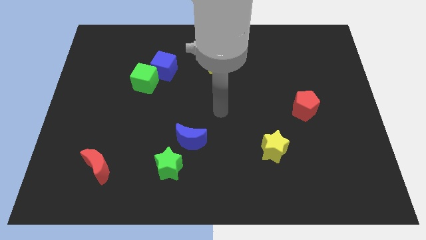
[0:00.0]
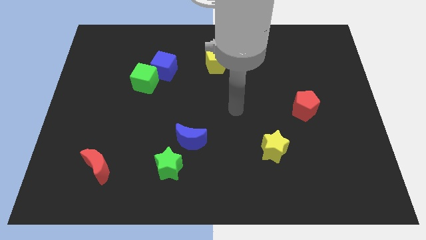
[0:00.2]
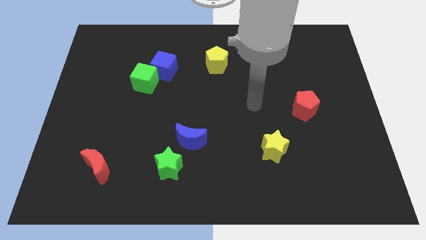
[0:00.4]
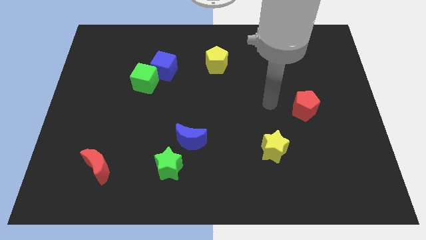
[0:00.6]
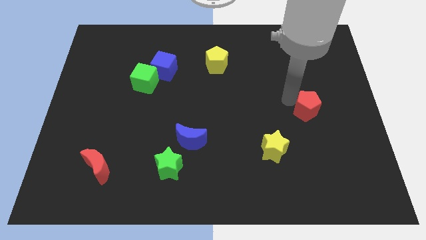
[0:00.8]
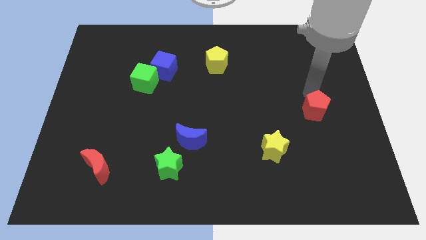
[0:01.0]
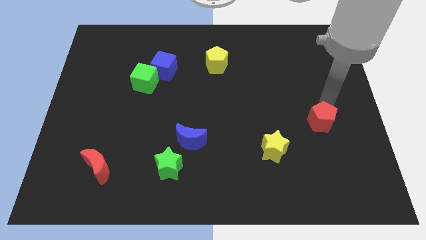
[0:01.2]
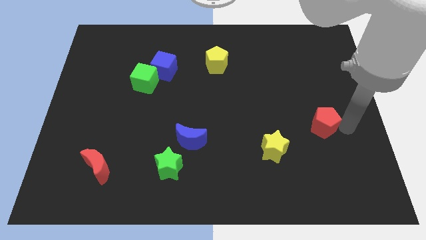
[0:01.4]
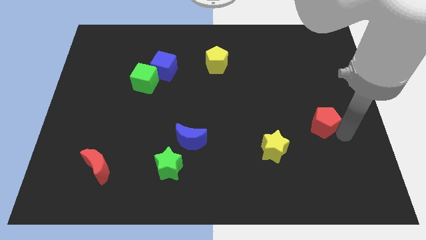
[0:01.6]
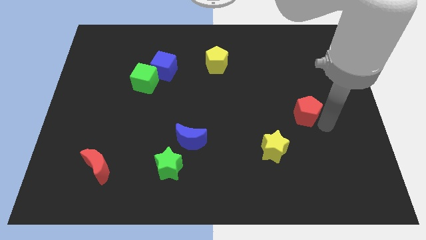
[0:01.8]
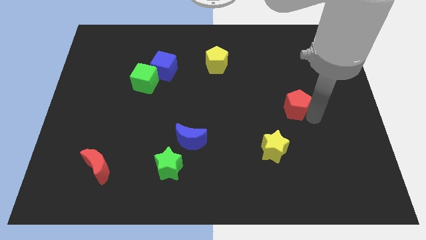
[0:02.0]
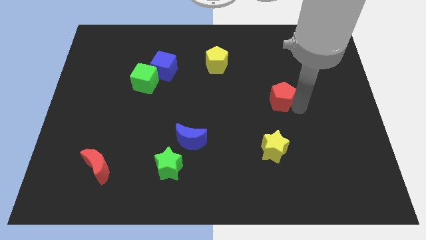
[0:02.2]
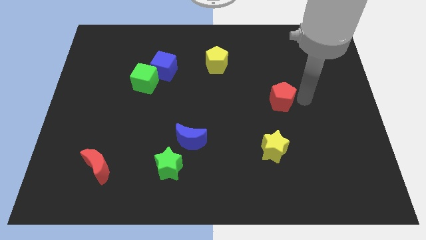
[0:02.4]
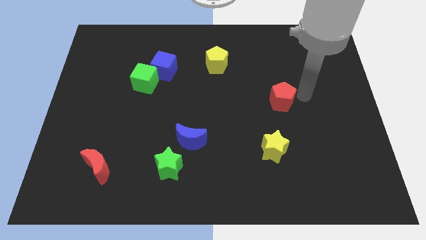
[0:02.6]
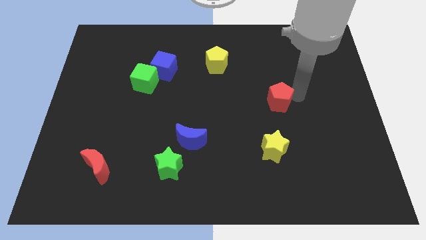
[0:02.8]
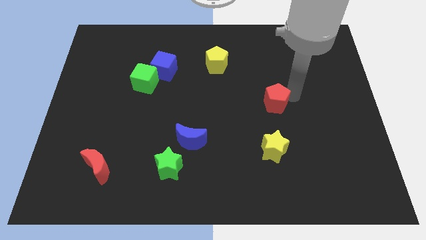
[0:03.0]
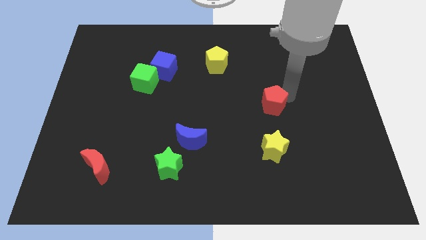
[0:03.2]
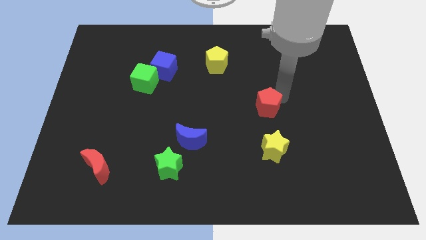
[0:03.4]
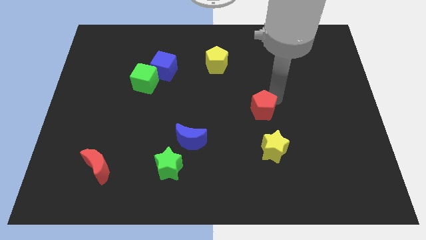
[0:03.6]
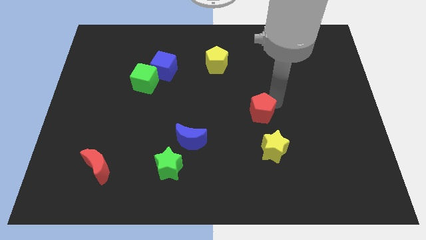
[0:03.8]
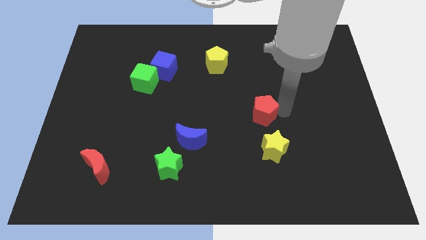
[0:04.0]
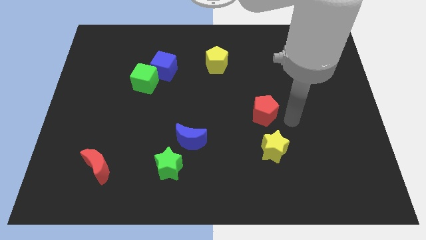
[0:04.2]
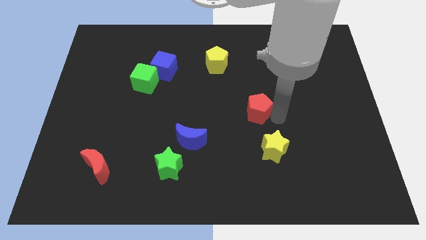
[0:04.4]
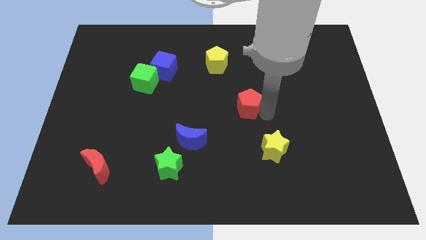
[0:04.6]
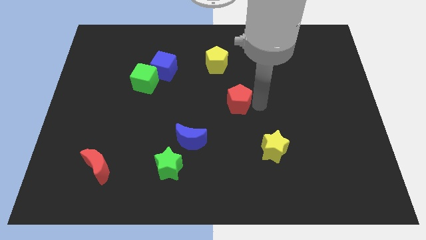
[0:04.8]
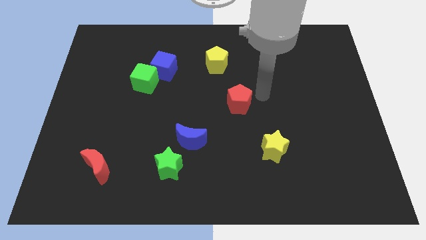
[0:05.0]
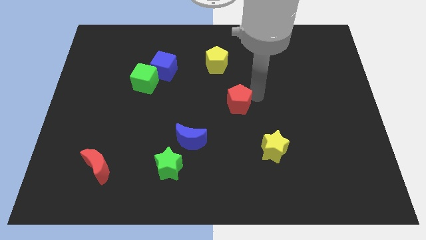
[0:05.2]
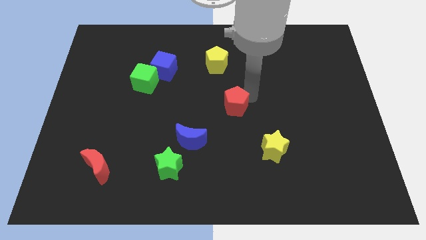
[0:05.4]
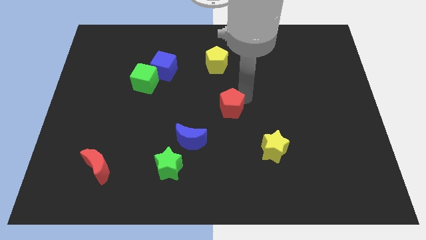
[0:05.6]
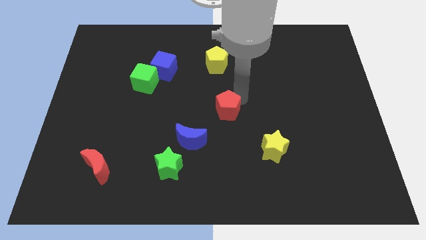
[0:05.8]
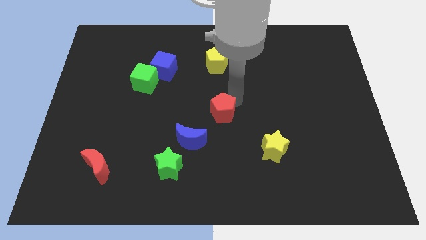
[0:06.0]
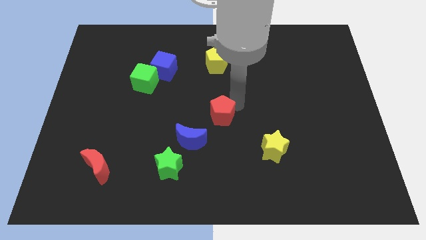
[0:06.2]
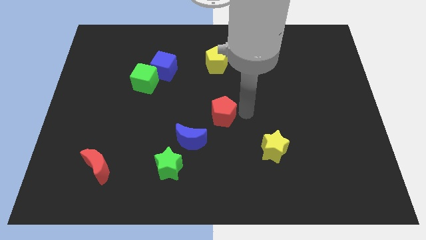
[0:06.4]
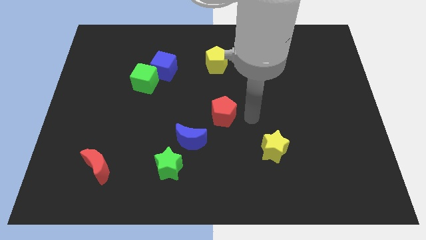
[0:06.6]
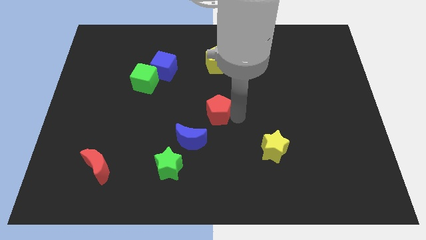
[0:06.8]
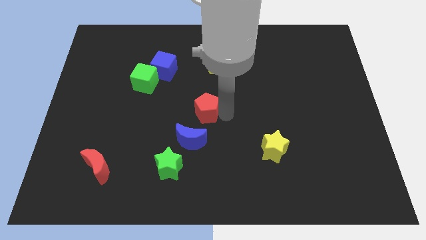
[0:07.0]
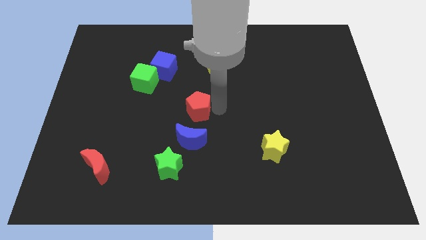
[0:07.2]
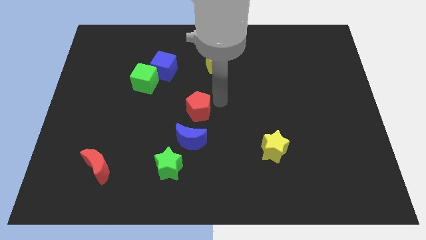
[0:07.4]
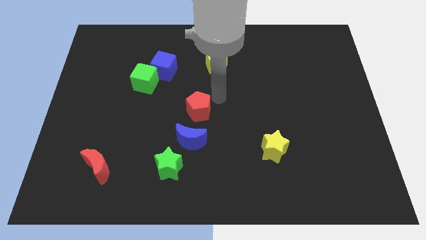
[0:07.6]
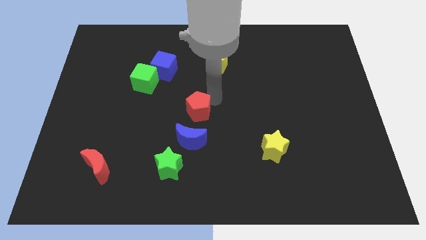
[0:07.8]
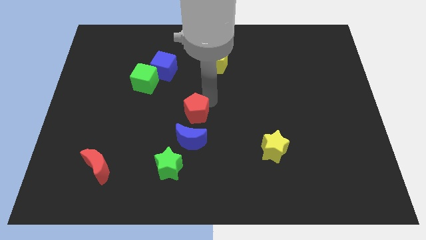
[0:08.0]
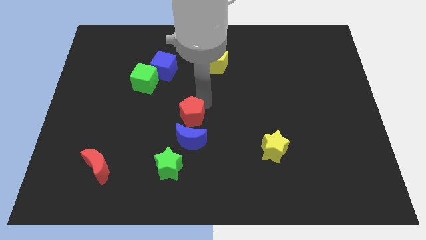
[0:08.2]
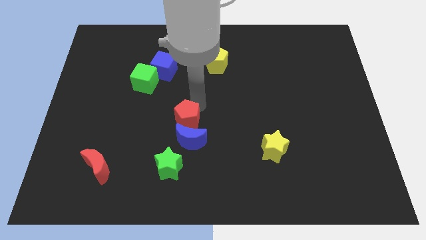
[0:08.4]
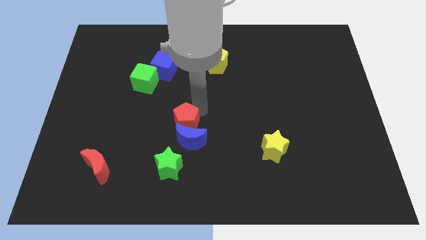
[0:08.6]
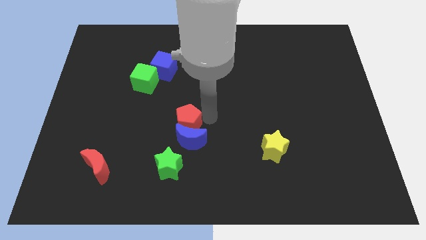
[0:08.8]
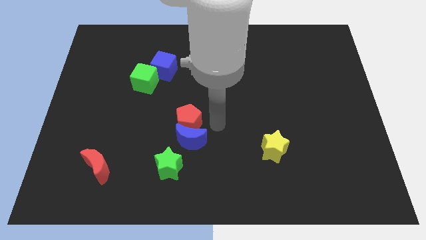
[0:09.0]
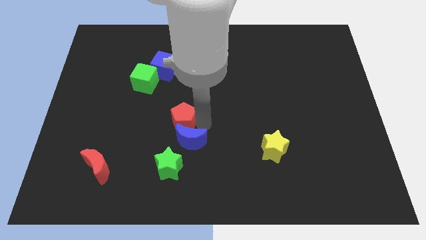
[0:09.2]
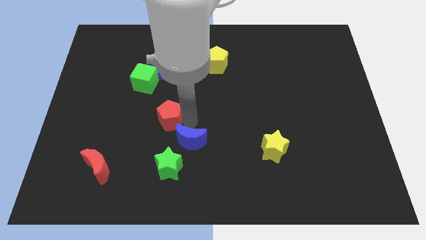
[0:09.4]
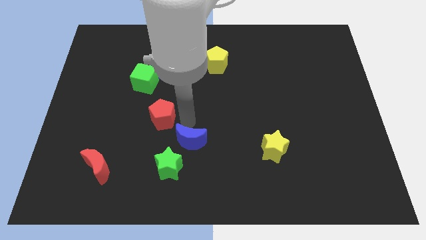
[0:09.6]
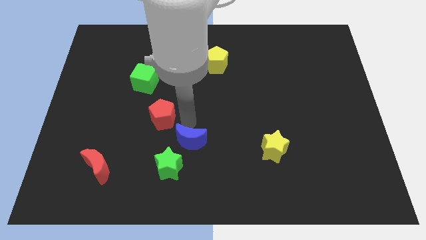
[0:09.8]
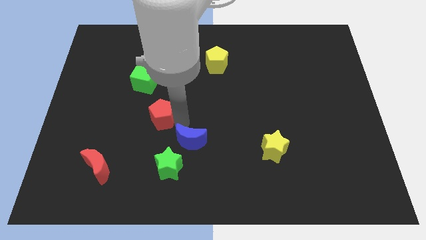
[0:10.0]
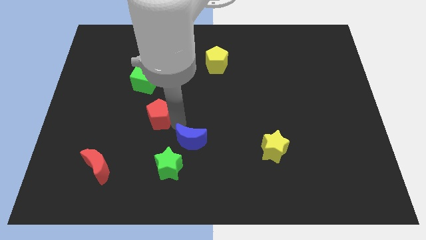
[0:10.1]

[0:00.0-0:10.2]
push the red pentagon to the bottom of the green cube

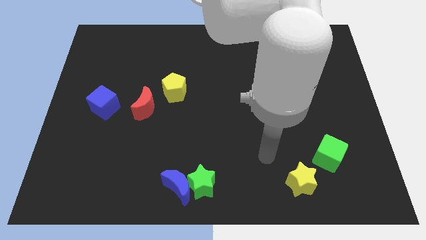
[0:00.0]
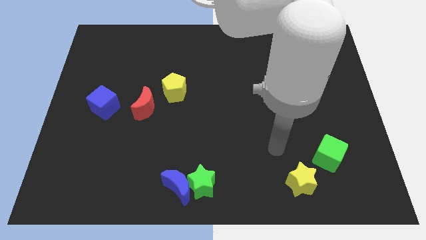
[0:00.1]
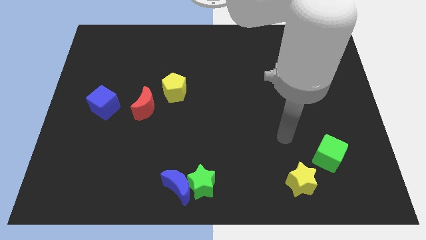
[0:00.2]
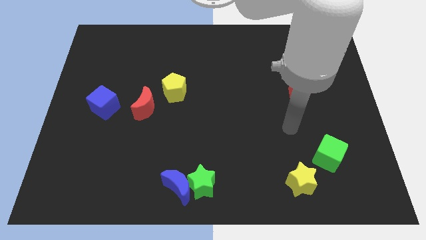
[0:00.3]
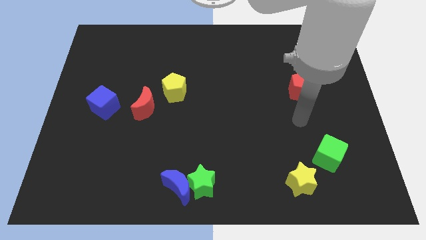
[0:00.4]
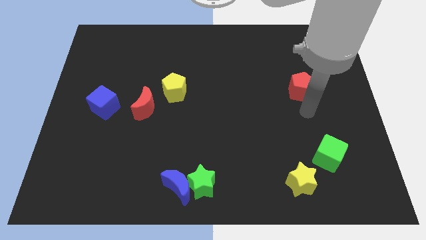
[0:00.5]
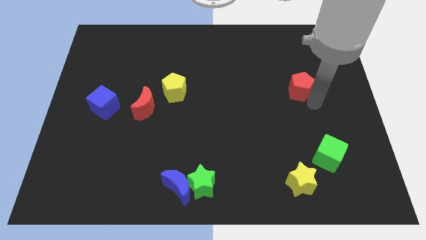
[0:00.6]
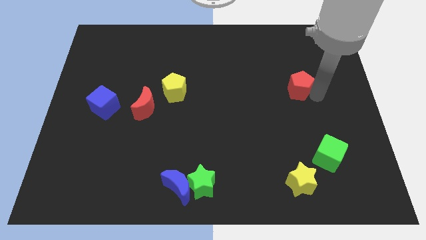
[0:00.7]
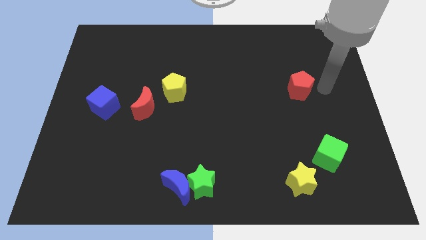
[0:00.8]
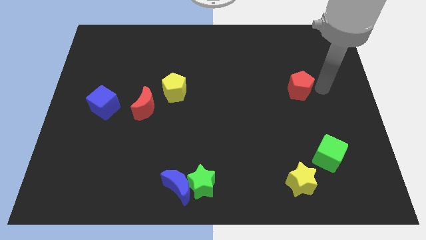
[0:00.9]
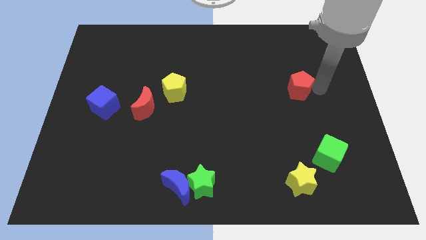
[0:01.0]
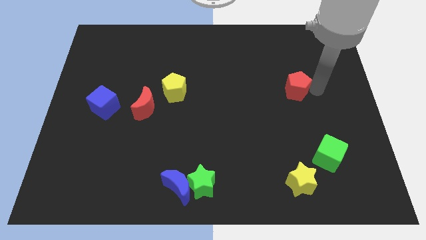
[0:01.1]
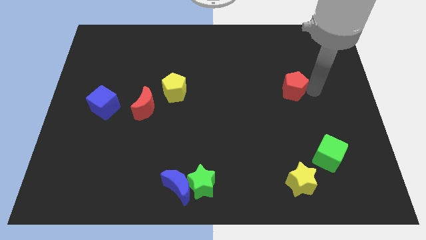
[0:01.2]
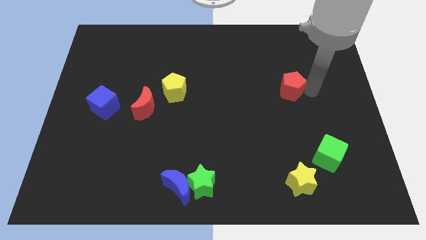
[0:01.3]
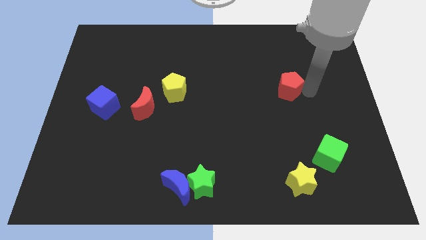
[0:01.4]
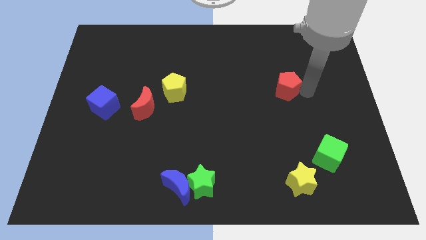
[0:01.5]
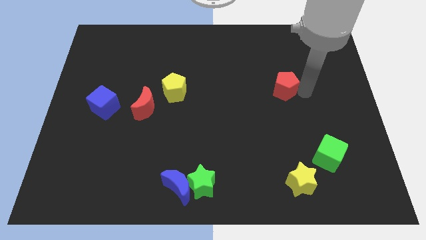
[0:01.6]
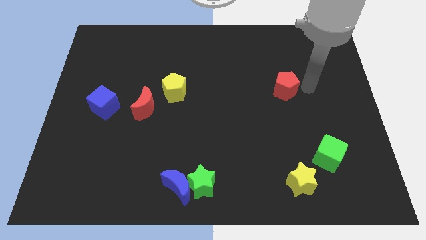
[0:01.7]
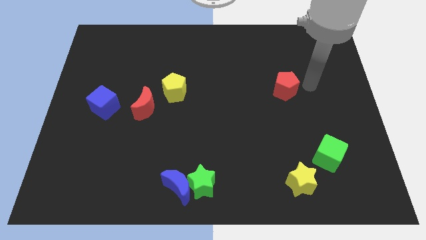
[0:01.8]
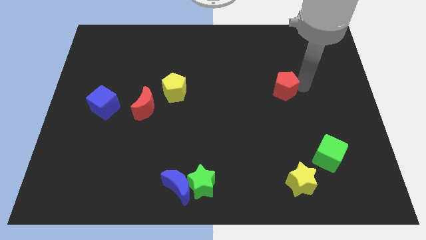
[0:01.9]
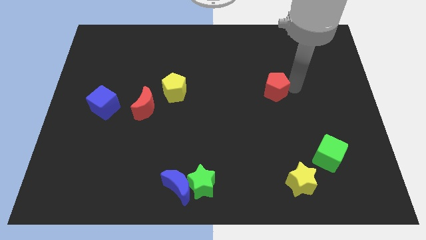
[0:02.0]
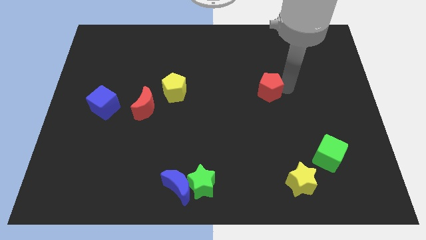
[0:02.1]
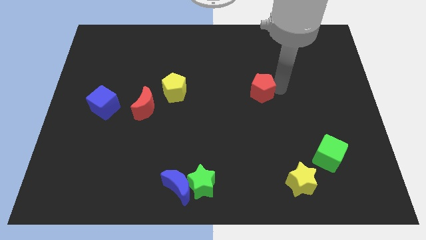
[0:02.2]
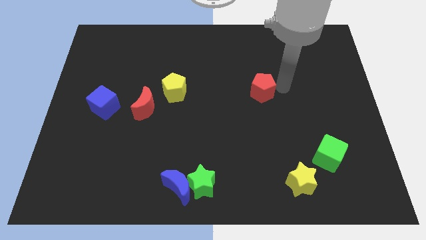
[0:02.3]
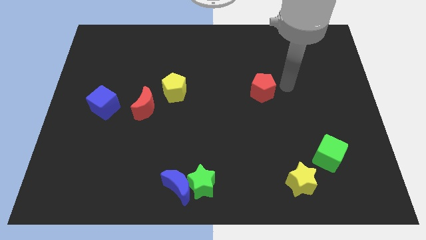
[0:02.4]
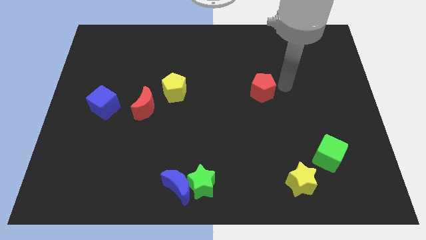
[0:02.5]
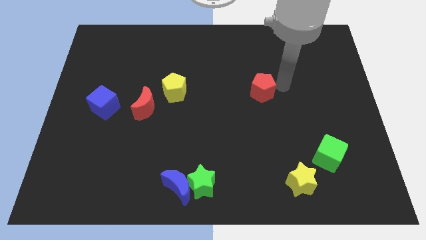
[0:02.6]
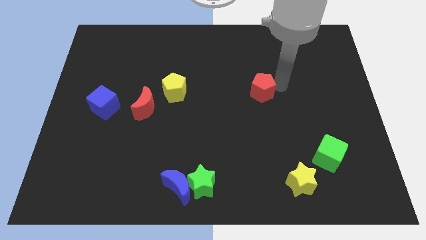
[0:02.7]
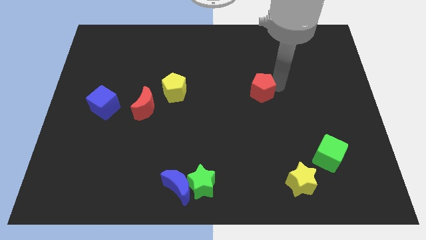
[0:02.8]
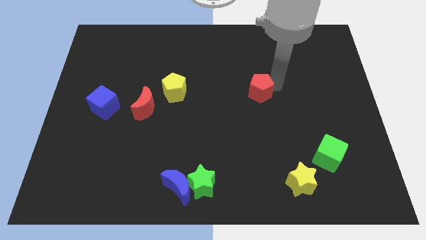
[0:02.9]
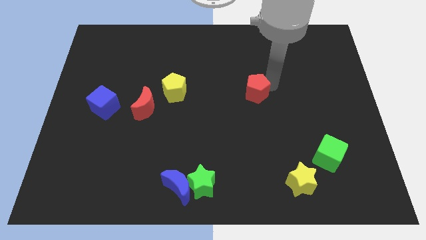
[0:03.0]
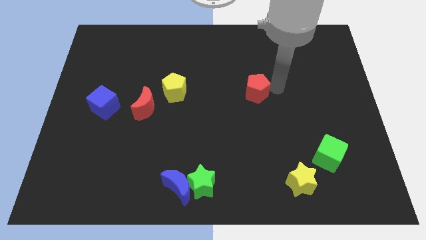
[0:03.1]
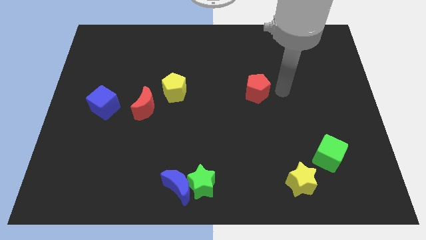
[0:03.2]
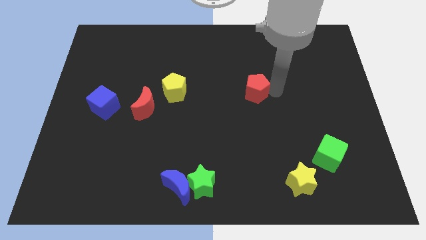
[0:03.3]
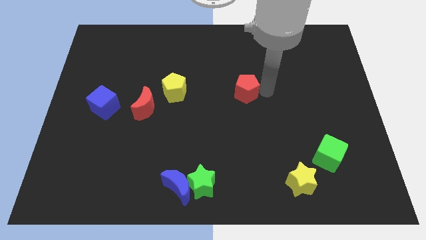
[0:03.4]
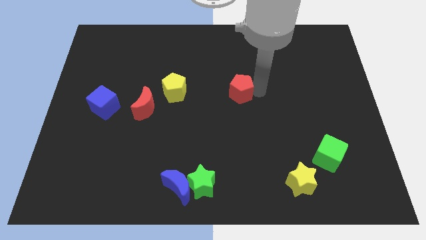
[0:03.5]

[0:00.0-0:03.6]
move the red pentagon to the right side of the yellow pentagon
